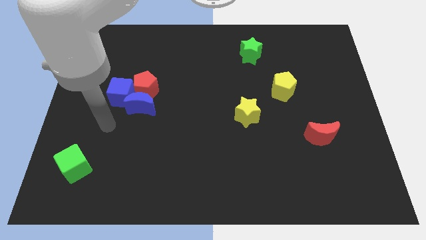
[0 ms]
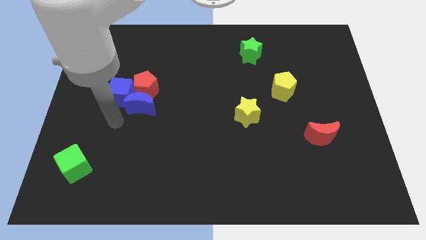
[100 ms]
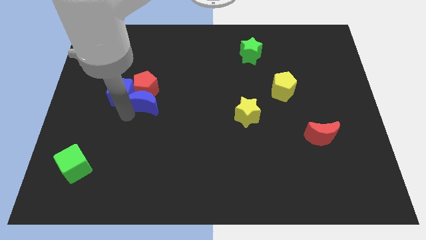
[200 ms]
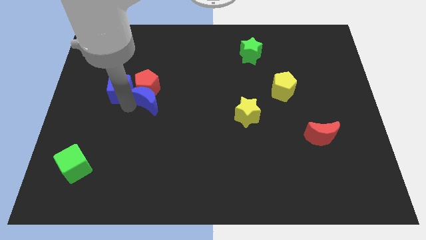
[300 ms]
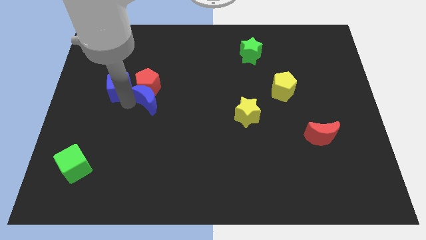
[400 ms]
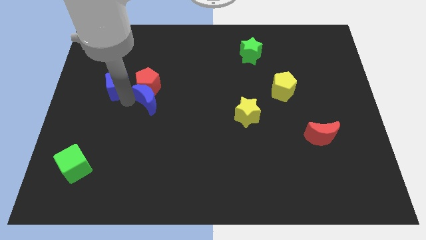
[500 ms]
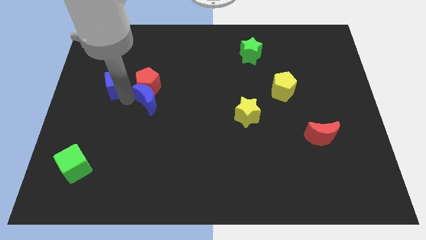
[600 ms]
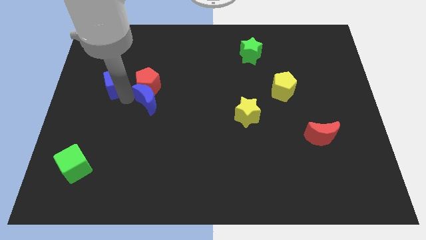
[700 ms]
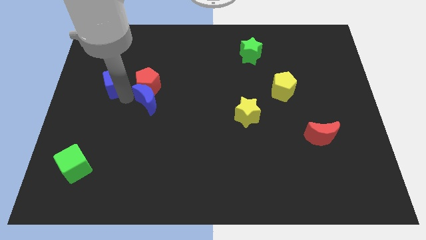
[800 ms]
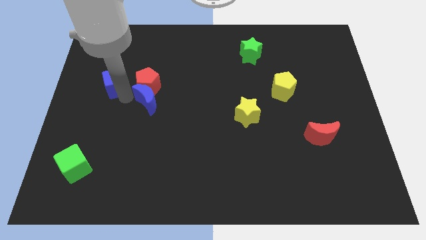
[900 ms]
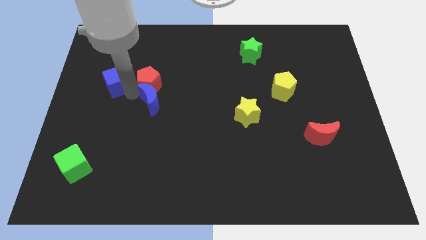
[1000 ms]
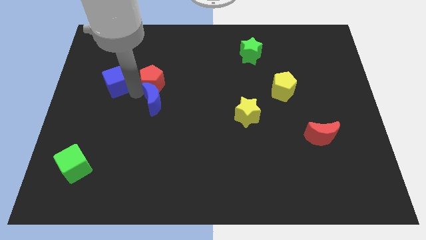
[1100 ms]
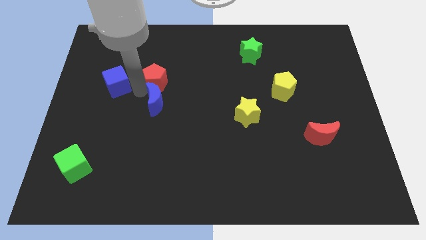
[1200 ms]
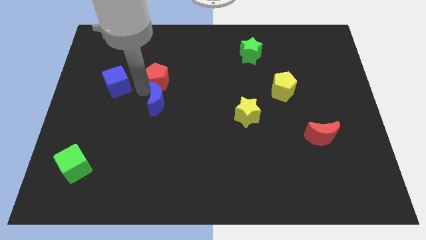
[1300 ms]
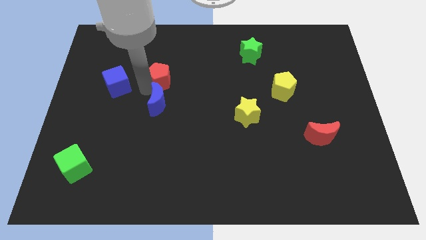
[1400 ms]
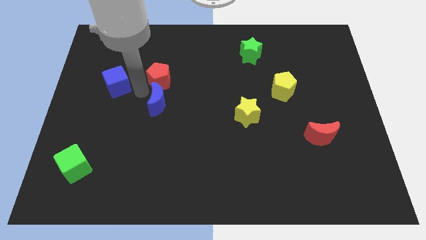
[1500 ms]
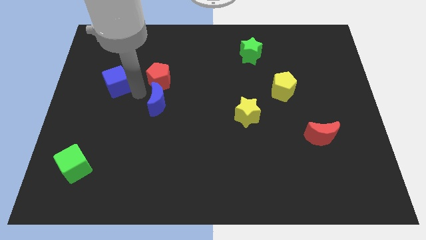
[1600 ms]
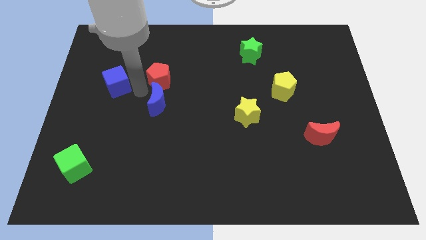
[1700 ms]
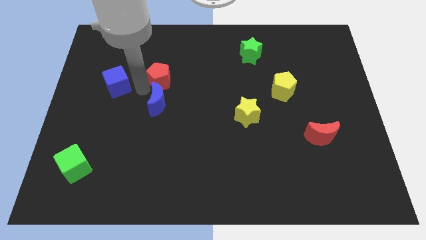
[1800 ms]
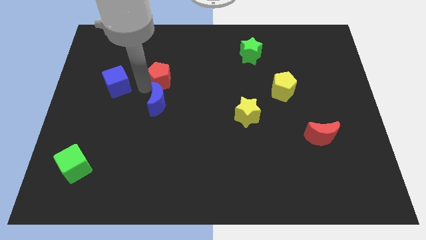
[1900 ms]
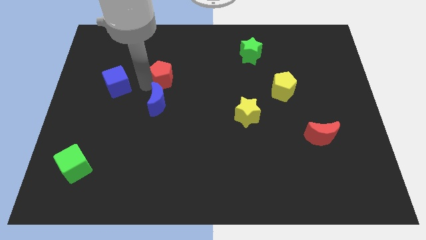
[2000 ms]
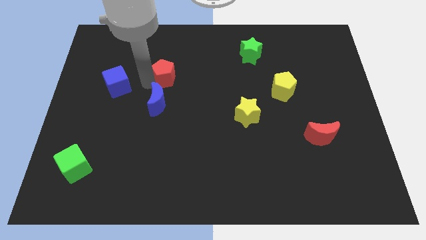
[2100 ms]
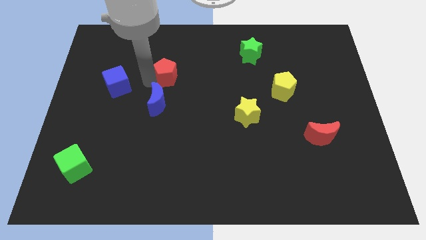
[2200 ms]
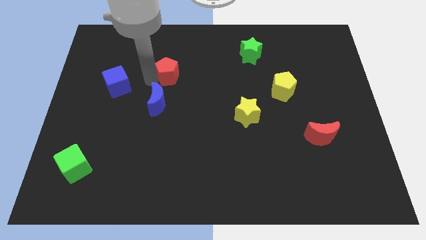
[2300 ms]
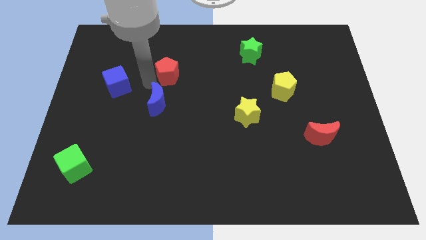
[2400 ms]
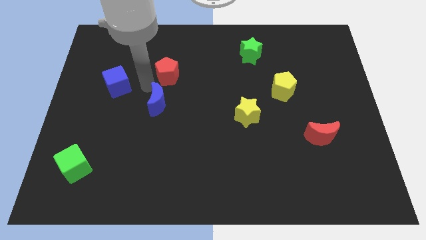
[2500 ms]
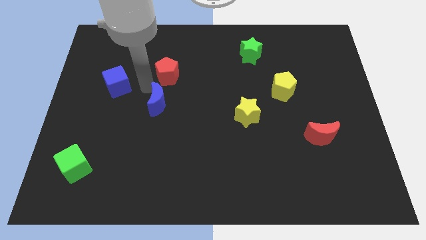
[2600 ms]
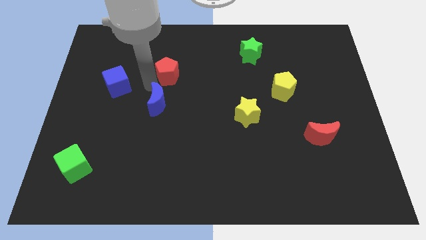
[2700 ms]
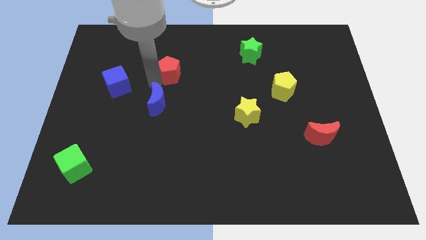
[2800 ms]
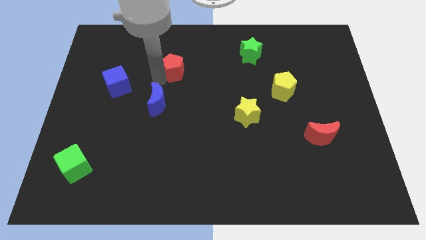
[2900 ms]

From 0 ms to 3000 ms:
separate the red pentagon from the blue moon and blue cube

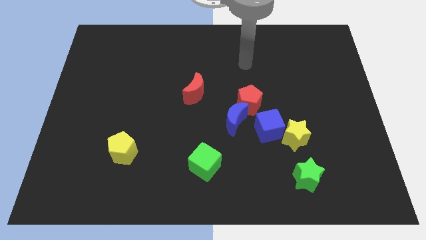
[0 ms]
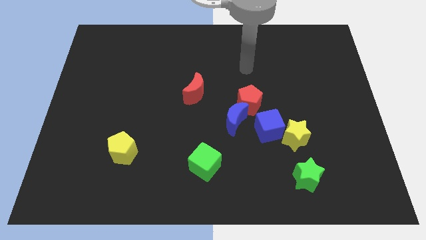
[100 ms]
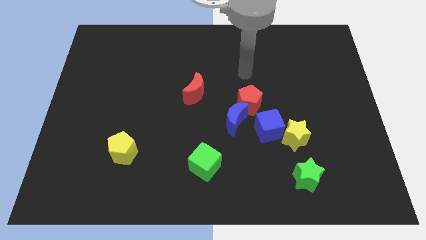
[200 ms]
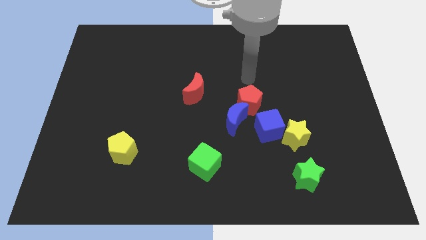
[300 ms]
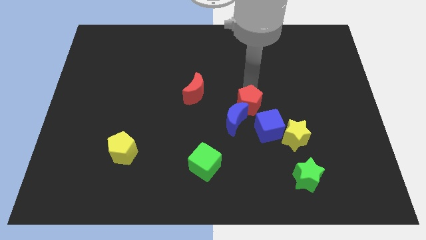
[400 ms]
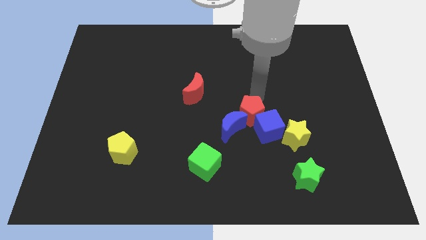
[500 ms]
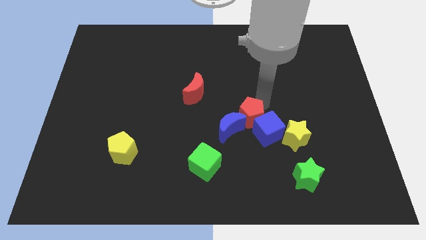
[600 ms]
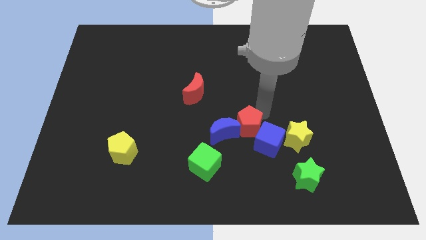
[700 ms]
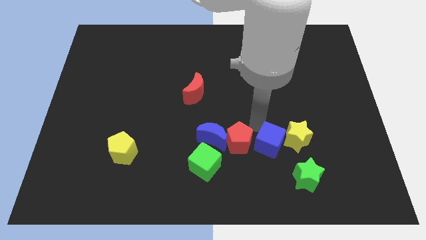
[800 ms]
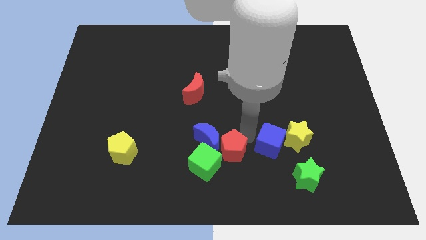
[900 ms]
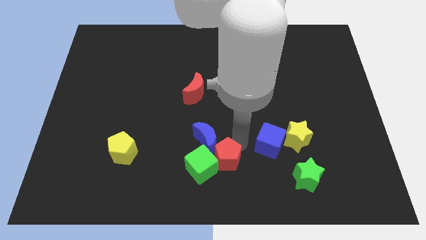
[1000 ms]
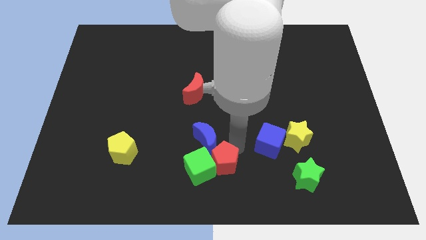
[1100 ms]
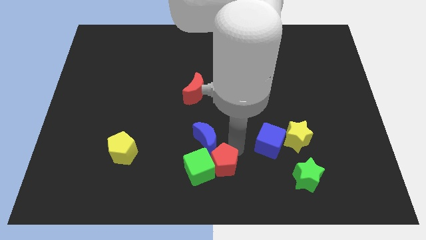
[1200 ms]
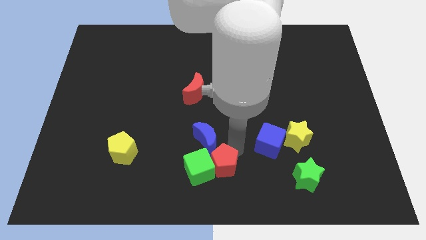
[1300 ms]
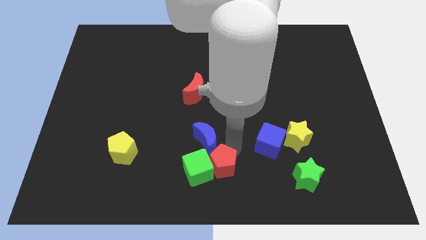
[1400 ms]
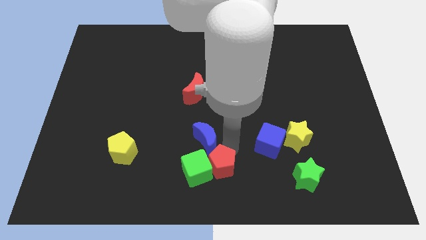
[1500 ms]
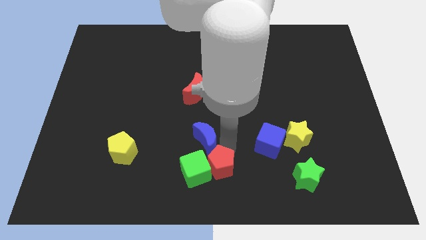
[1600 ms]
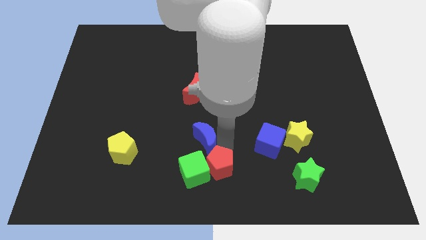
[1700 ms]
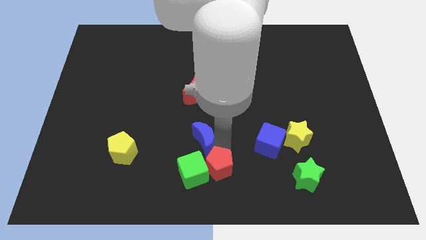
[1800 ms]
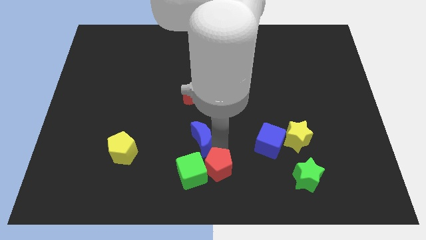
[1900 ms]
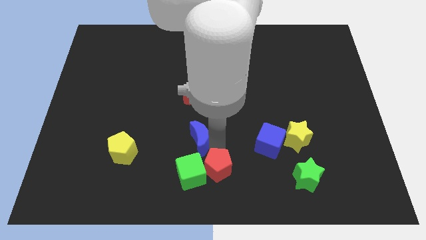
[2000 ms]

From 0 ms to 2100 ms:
move the blue moon away from the red pentagon and blue cube

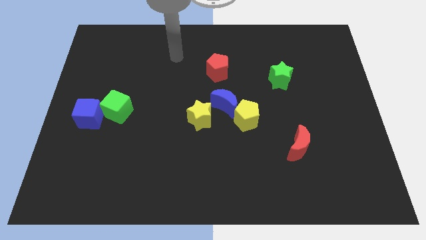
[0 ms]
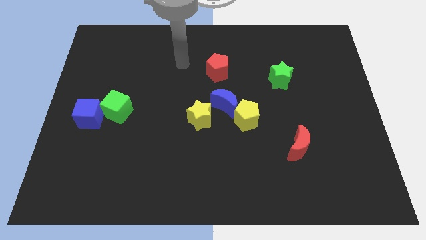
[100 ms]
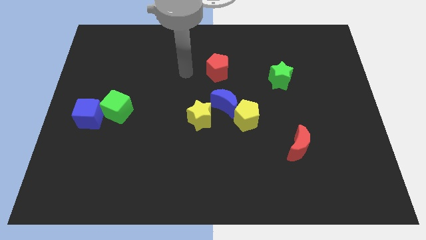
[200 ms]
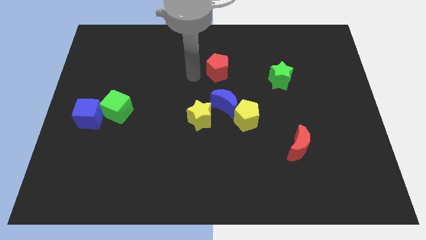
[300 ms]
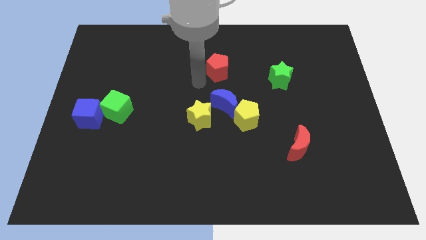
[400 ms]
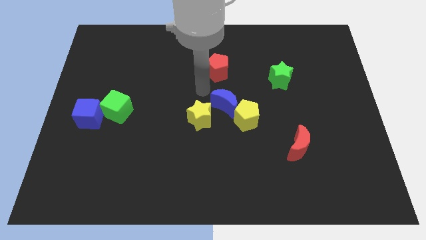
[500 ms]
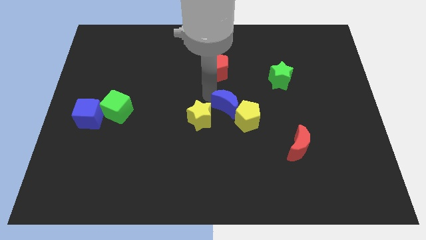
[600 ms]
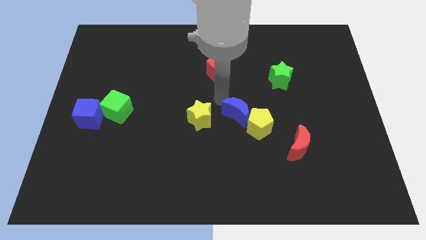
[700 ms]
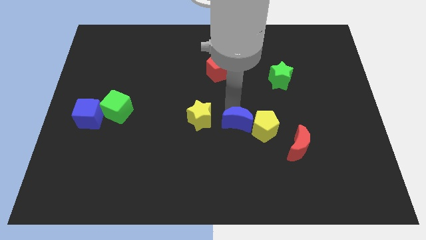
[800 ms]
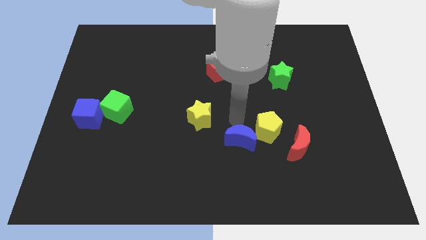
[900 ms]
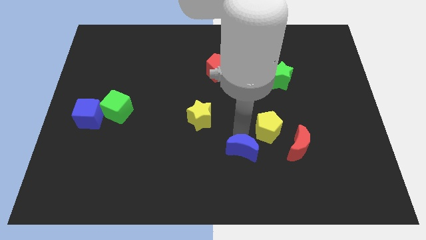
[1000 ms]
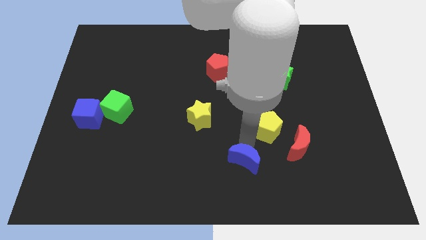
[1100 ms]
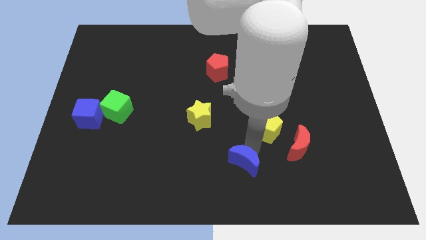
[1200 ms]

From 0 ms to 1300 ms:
move the yellow pentagon away from the blue moon

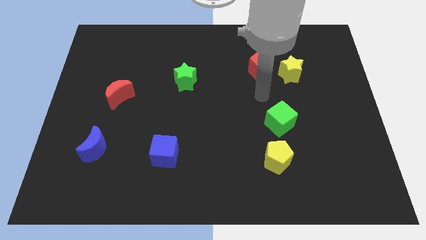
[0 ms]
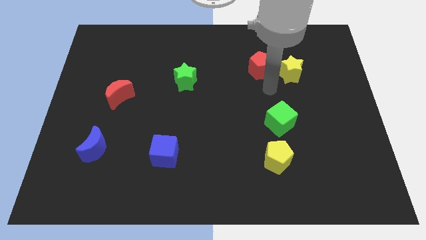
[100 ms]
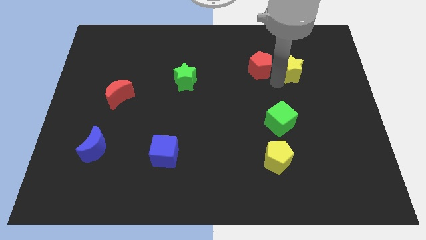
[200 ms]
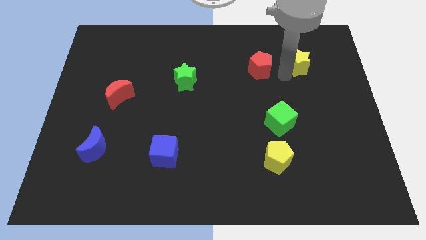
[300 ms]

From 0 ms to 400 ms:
move the red pentagon away from the yellow star

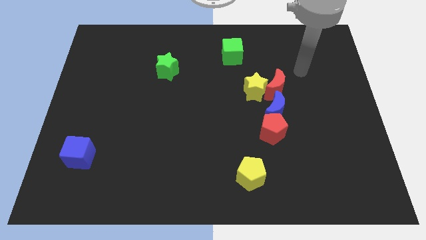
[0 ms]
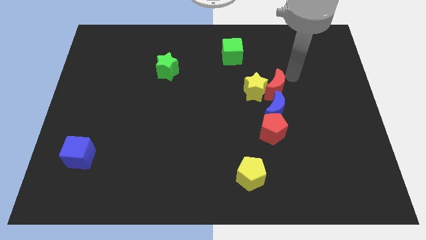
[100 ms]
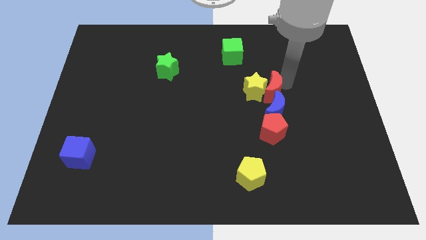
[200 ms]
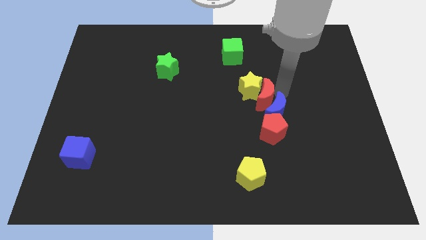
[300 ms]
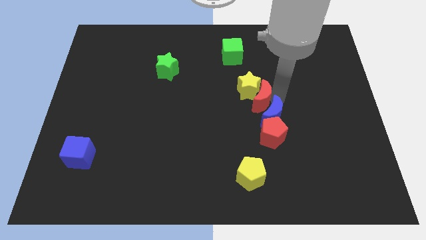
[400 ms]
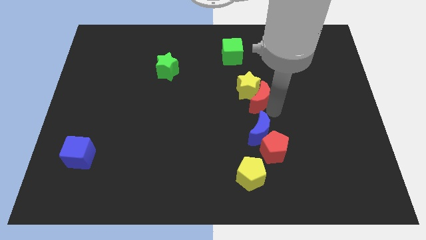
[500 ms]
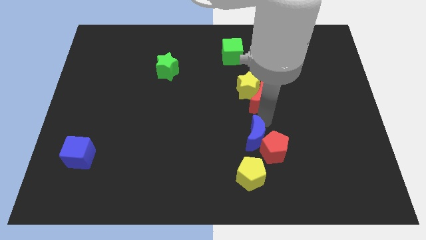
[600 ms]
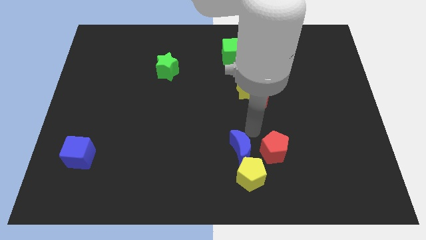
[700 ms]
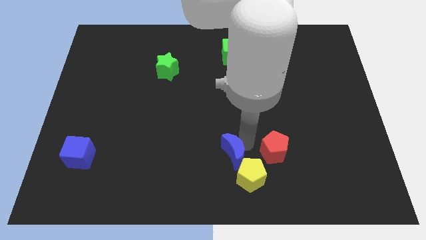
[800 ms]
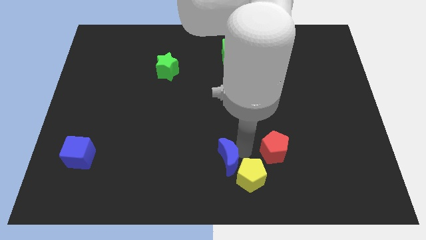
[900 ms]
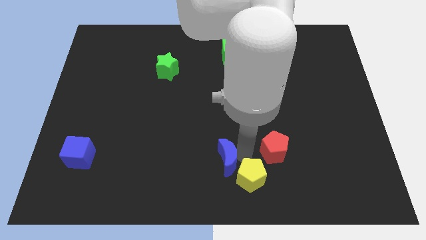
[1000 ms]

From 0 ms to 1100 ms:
separate the red pentagon from the blue moon

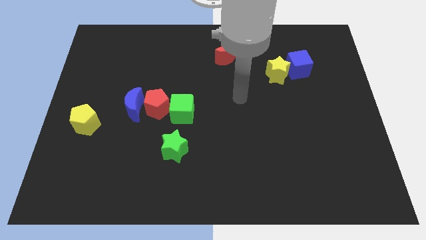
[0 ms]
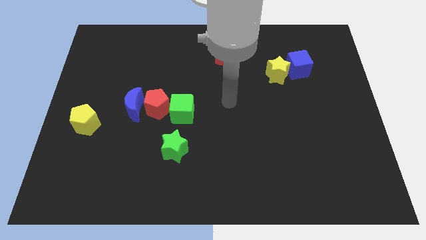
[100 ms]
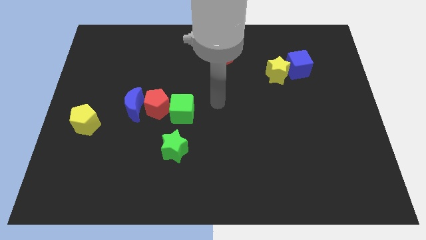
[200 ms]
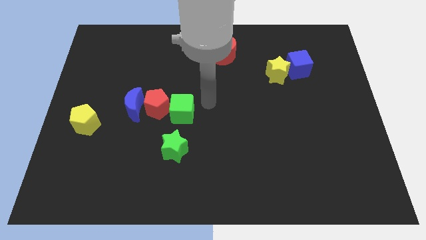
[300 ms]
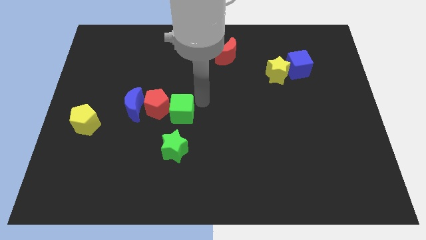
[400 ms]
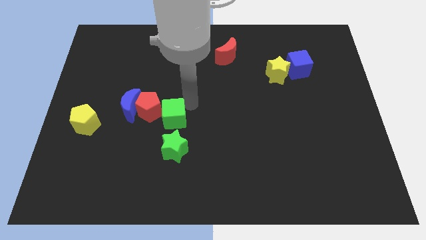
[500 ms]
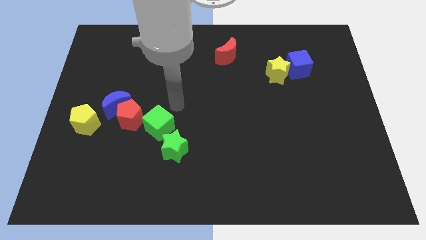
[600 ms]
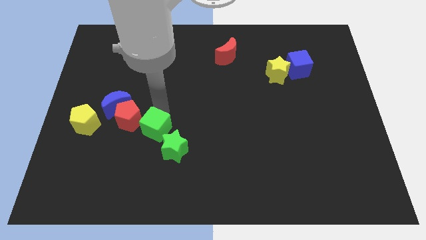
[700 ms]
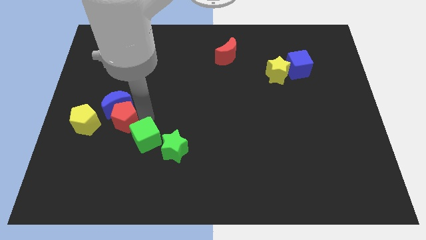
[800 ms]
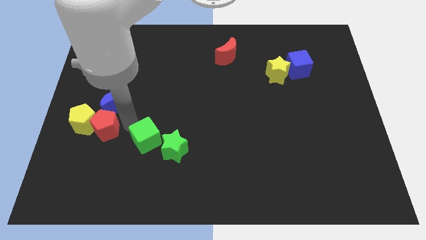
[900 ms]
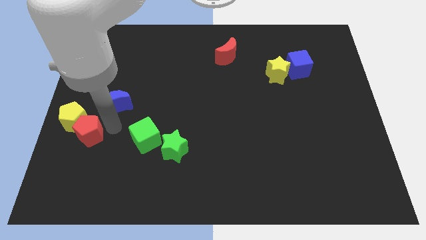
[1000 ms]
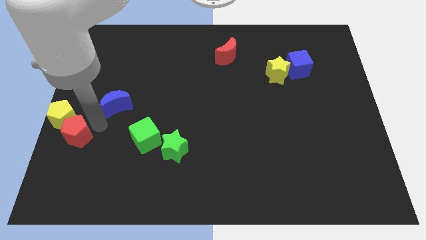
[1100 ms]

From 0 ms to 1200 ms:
move the blue moon away from the red pentagon

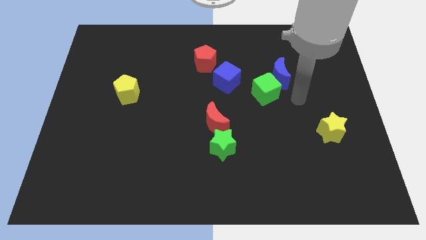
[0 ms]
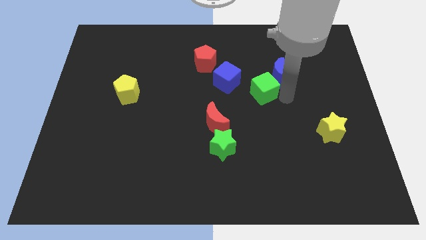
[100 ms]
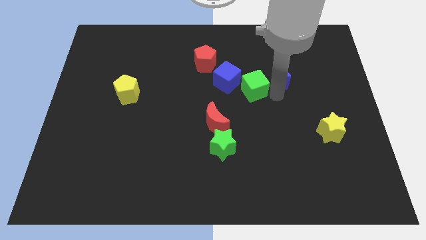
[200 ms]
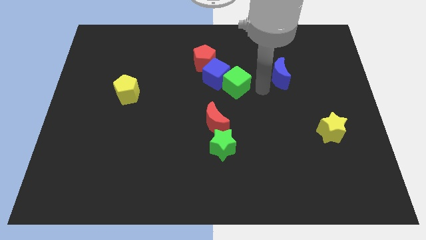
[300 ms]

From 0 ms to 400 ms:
move the blue moon away from the green cube

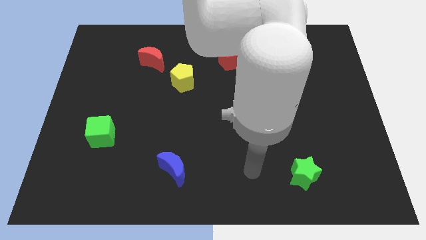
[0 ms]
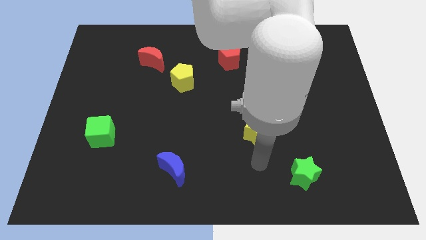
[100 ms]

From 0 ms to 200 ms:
pull the red pentagon apart from the blue cube
